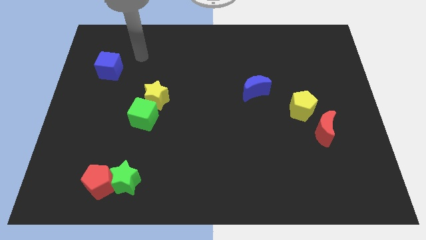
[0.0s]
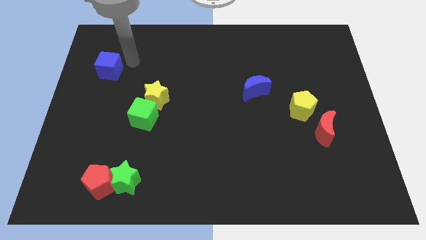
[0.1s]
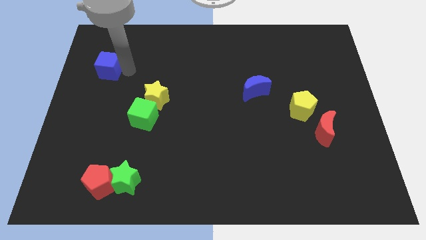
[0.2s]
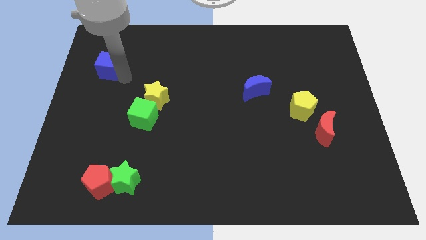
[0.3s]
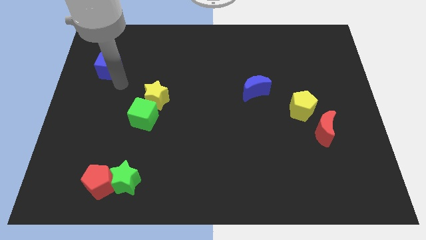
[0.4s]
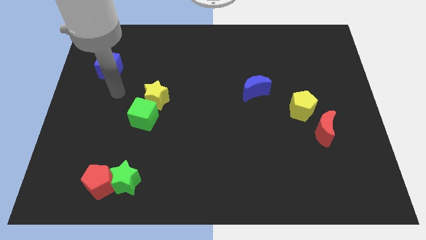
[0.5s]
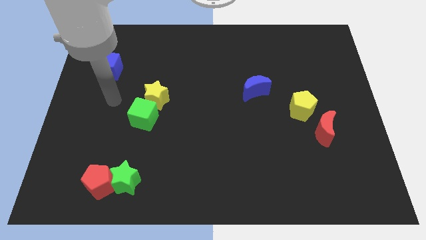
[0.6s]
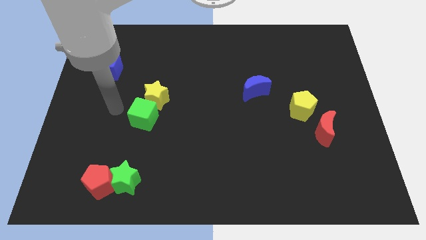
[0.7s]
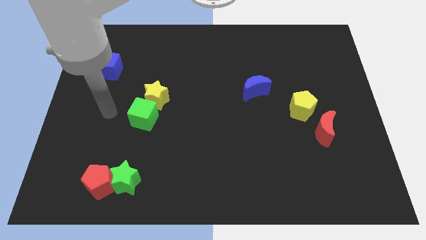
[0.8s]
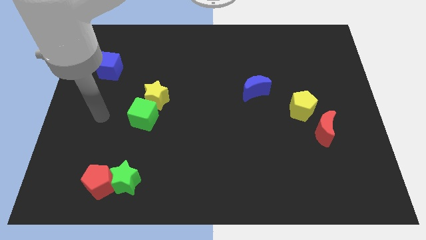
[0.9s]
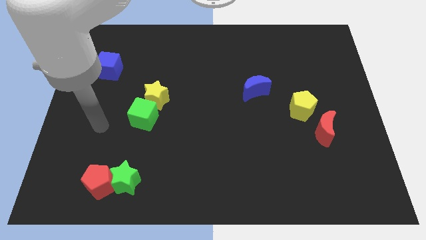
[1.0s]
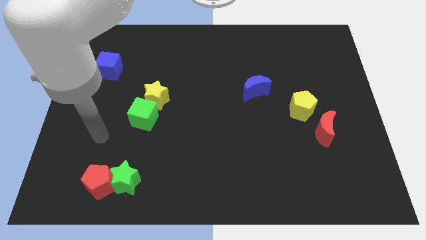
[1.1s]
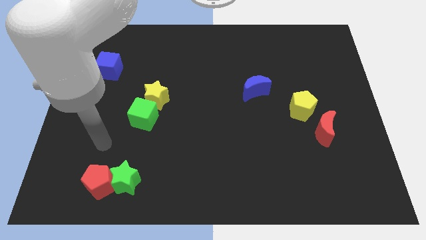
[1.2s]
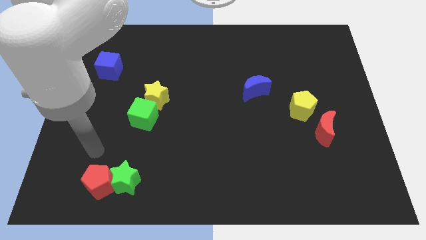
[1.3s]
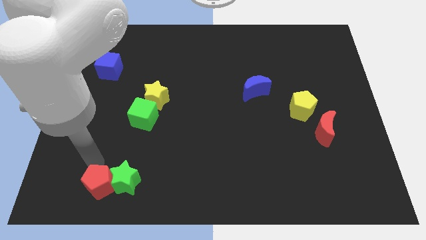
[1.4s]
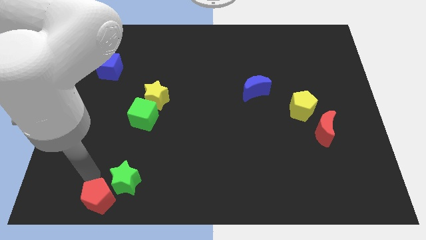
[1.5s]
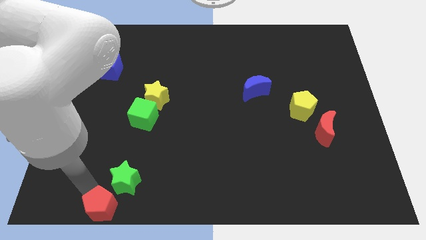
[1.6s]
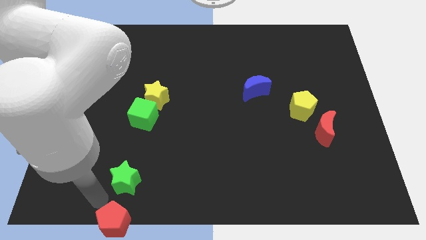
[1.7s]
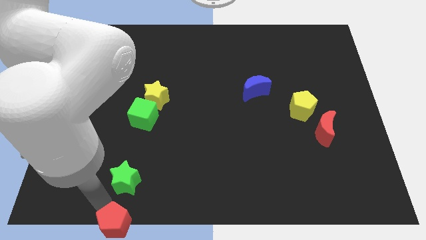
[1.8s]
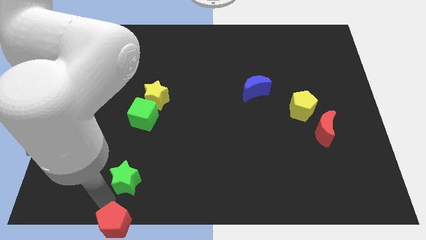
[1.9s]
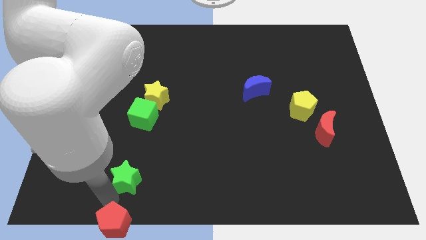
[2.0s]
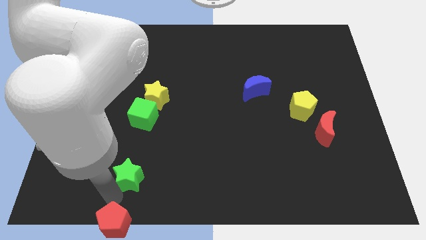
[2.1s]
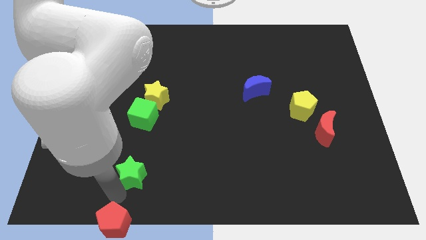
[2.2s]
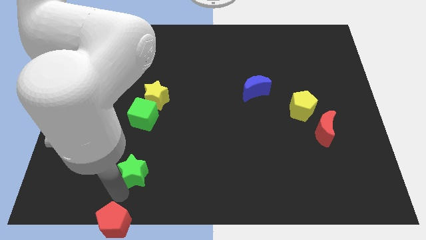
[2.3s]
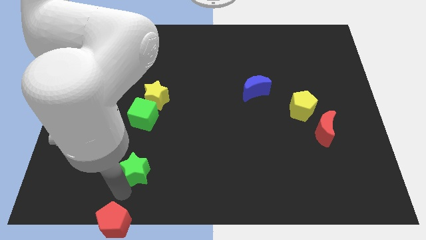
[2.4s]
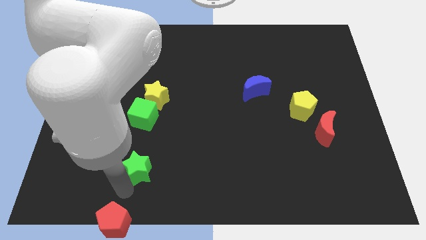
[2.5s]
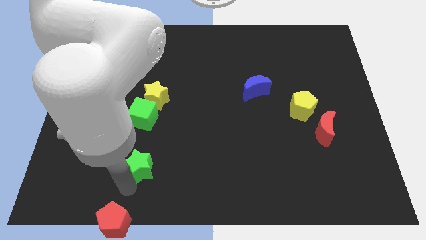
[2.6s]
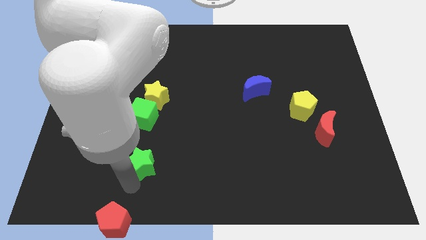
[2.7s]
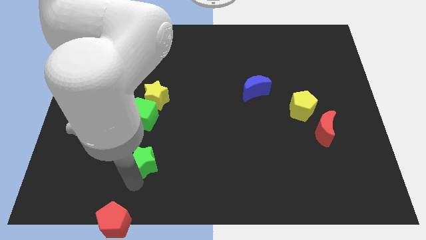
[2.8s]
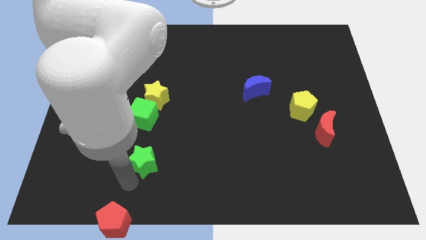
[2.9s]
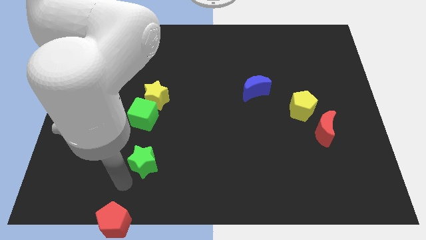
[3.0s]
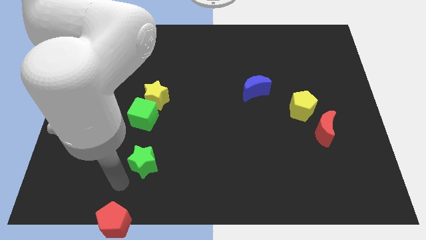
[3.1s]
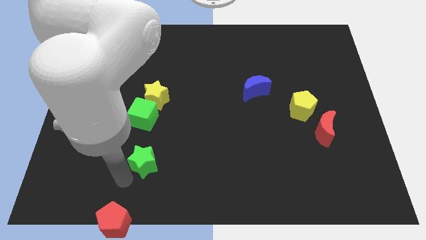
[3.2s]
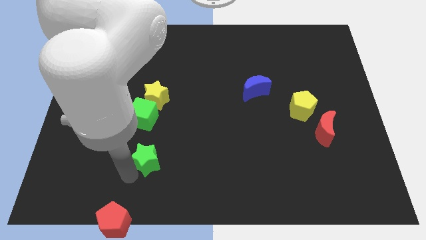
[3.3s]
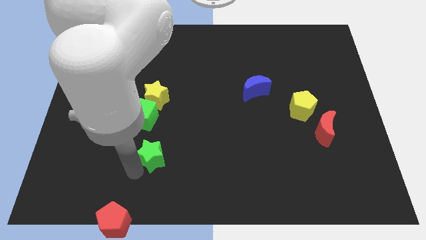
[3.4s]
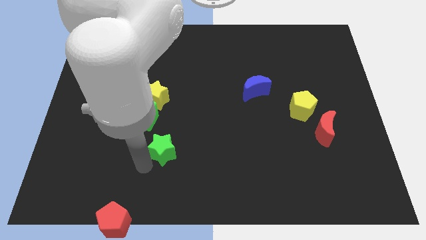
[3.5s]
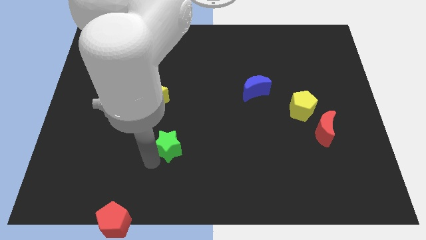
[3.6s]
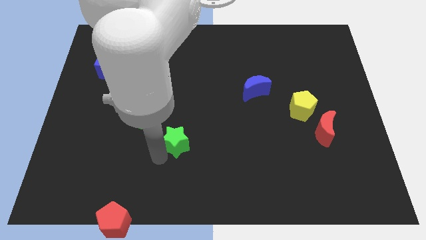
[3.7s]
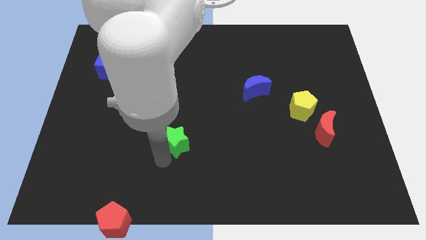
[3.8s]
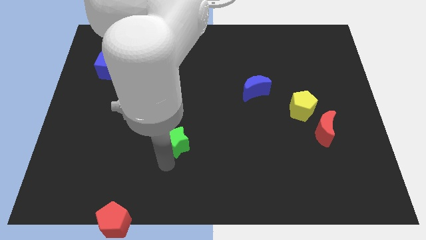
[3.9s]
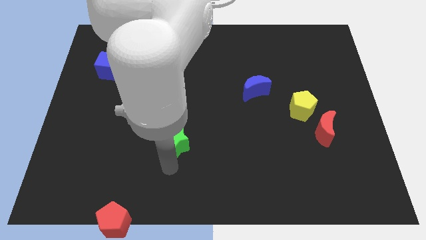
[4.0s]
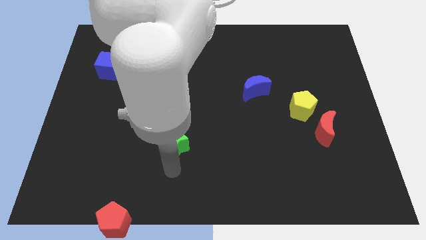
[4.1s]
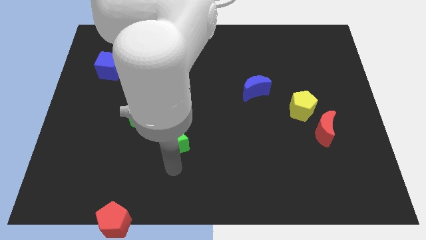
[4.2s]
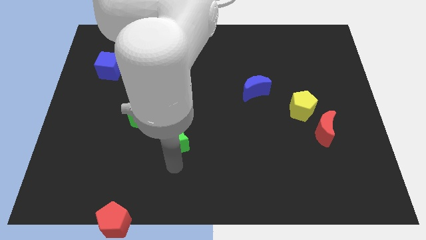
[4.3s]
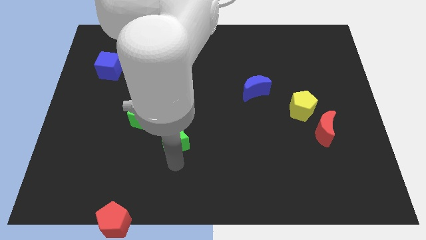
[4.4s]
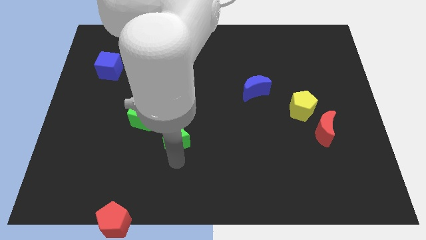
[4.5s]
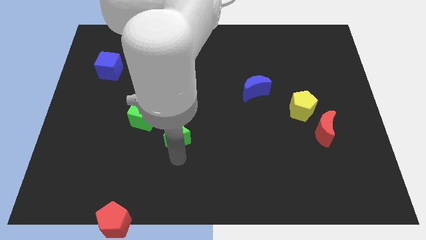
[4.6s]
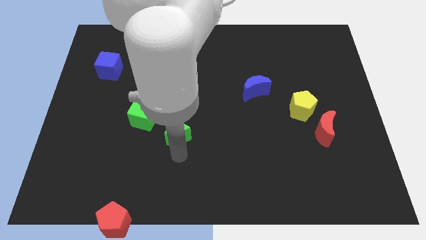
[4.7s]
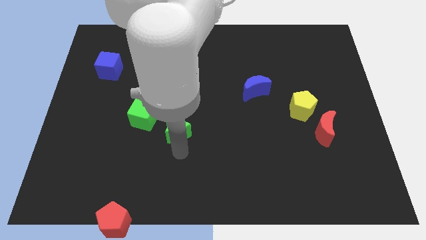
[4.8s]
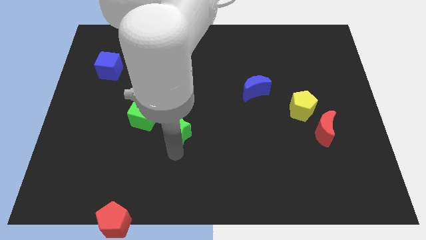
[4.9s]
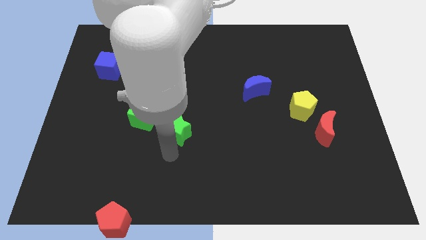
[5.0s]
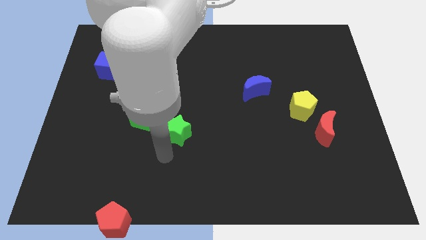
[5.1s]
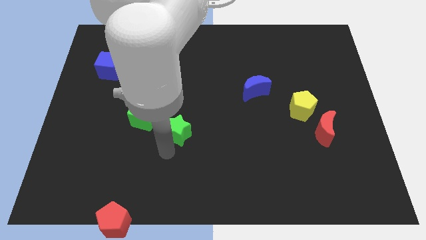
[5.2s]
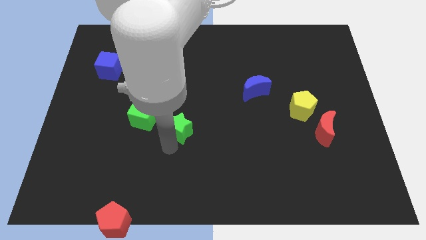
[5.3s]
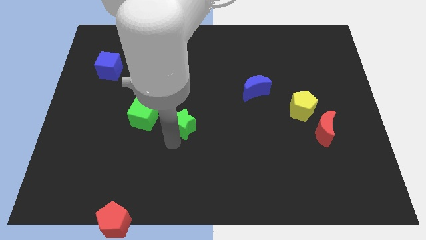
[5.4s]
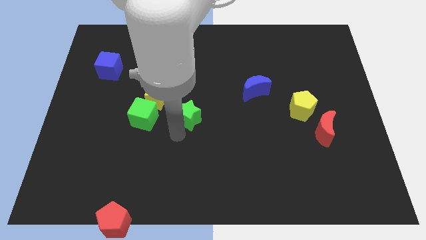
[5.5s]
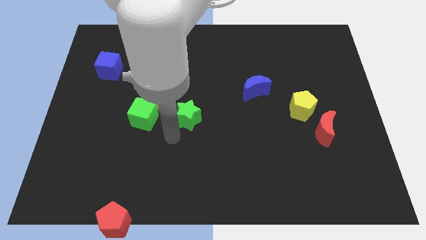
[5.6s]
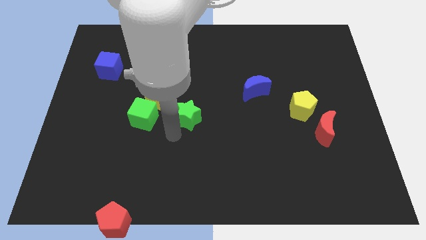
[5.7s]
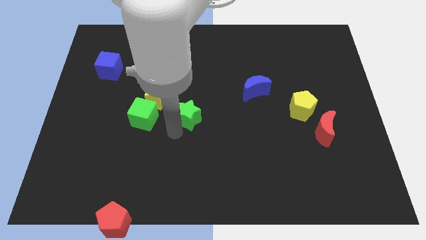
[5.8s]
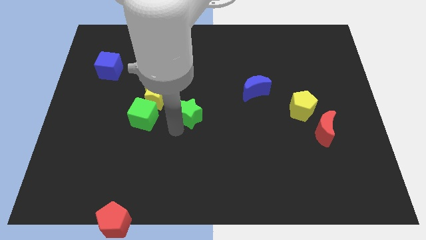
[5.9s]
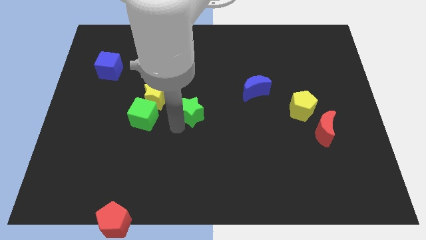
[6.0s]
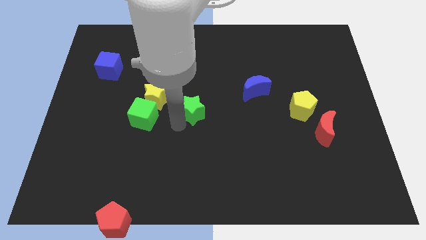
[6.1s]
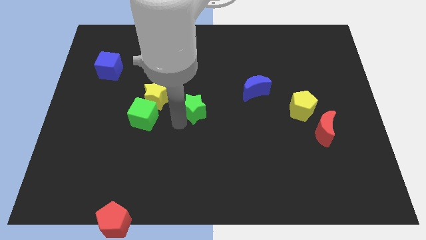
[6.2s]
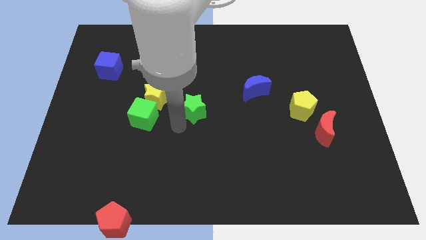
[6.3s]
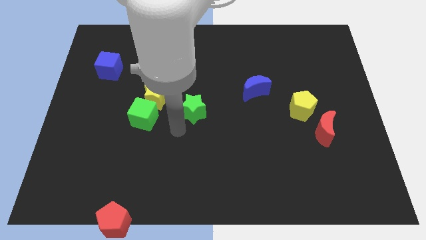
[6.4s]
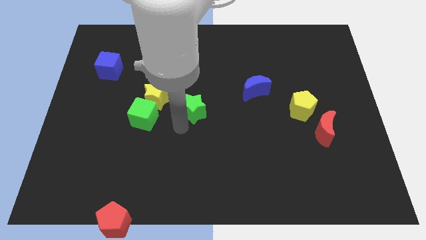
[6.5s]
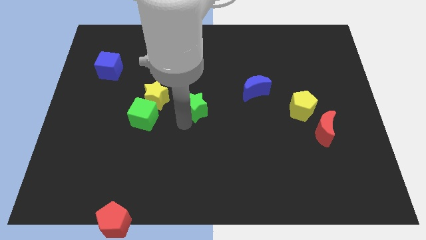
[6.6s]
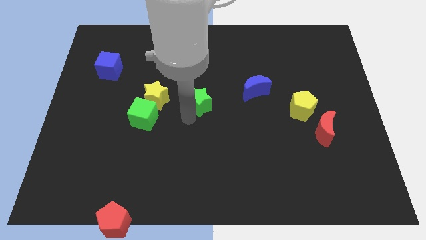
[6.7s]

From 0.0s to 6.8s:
slide the green star left of the blue moon

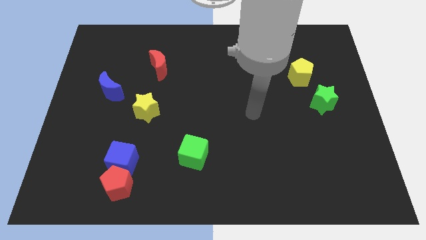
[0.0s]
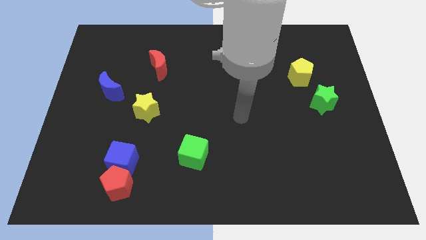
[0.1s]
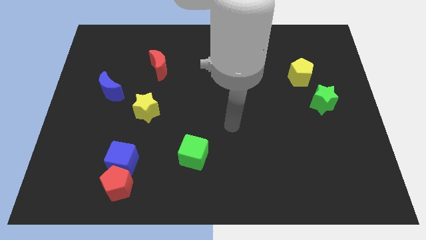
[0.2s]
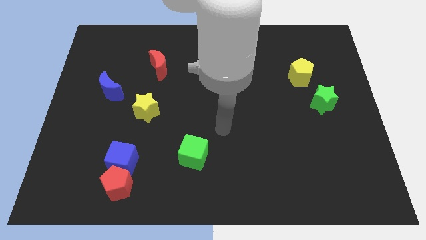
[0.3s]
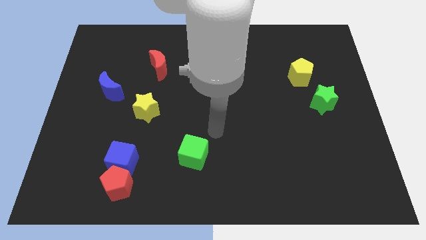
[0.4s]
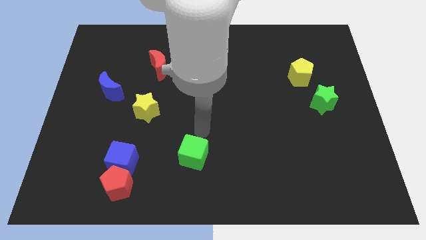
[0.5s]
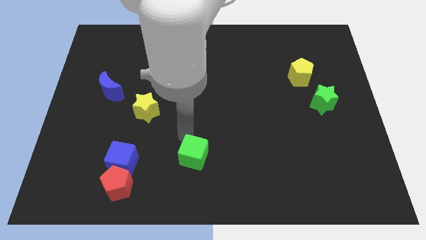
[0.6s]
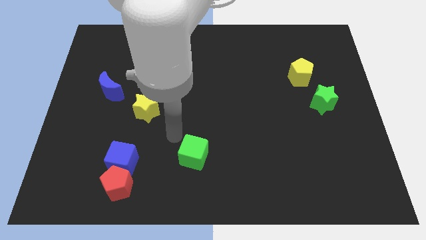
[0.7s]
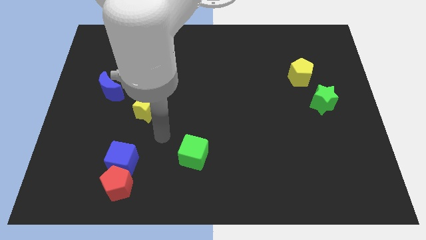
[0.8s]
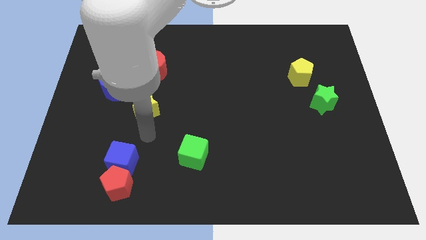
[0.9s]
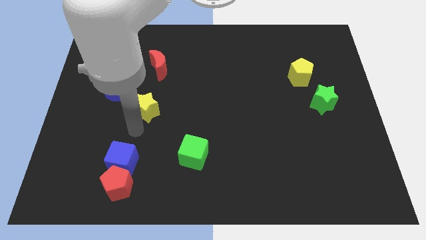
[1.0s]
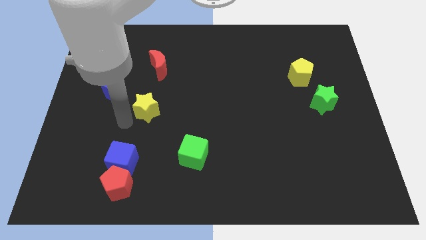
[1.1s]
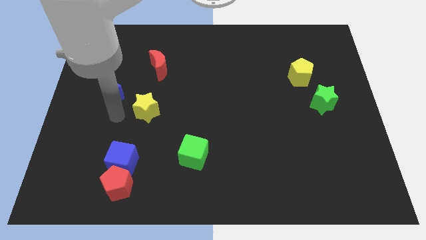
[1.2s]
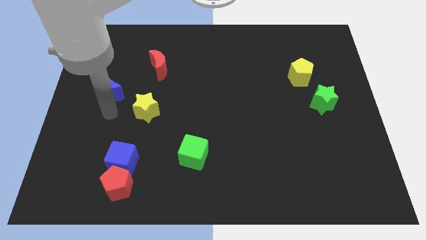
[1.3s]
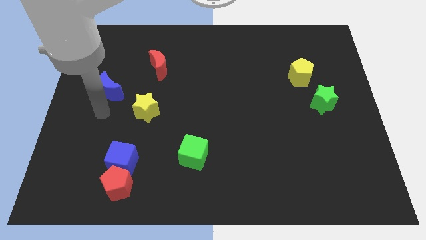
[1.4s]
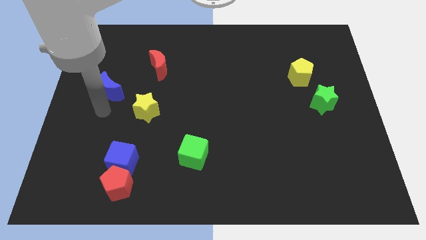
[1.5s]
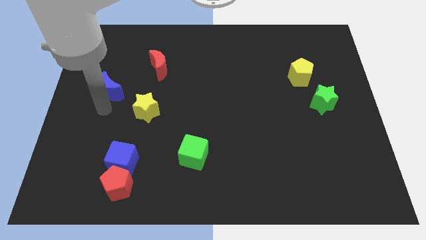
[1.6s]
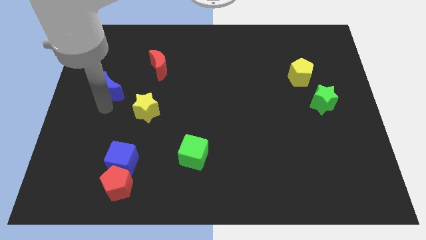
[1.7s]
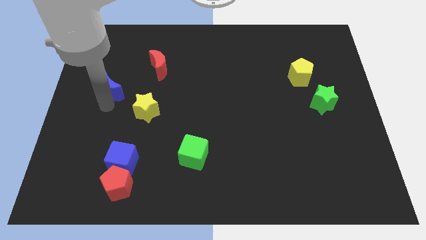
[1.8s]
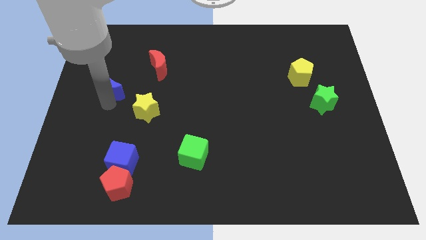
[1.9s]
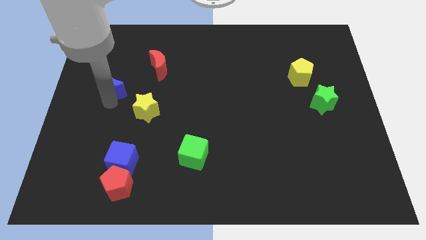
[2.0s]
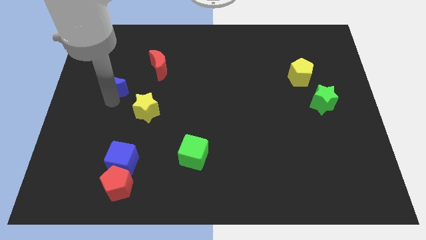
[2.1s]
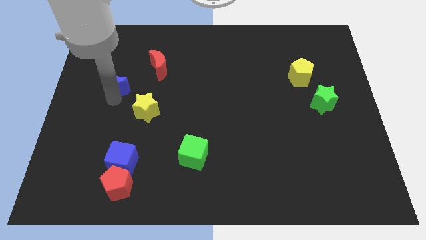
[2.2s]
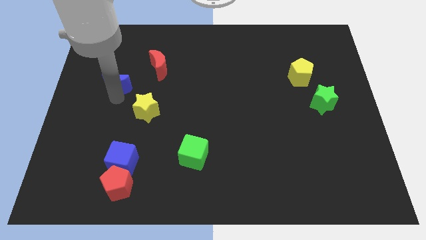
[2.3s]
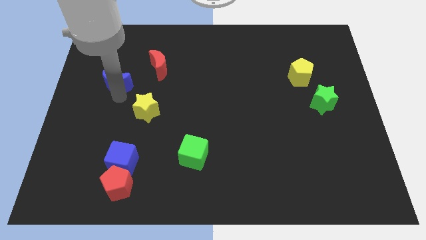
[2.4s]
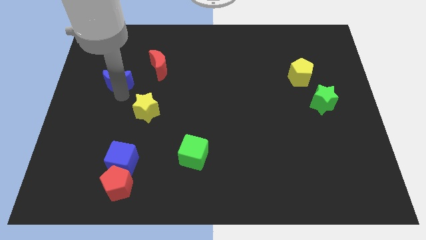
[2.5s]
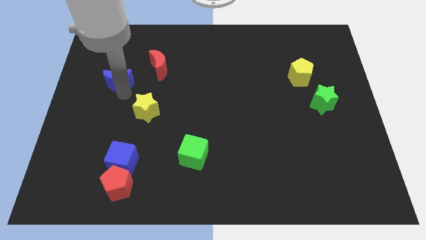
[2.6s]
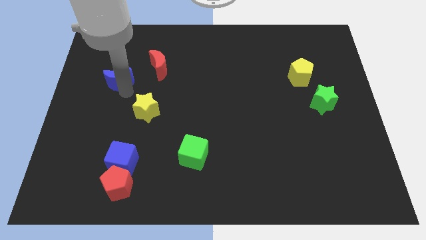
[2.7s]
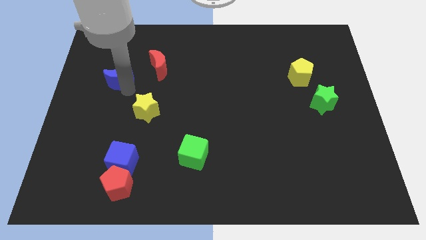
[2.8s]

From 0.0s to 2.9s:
slide the blue moon to the left side of the red moon
